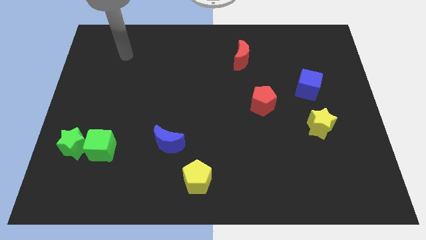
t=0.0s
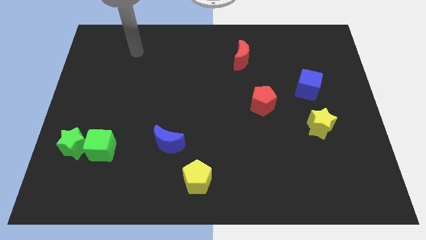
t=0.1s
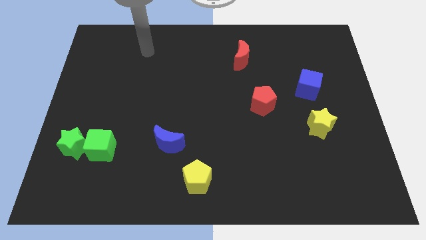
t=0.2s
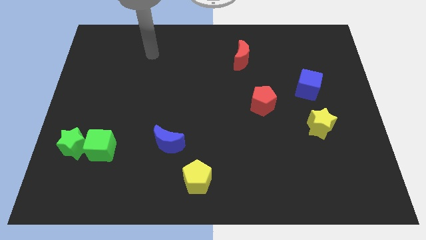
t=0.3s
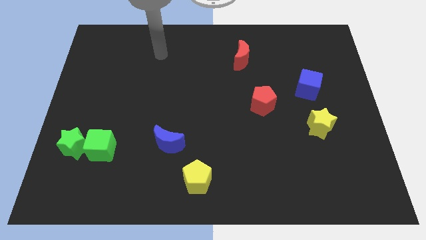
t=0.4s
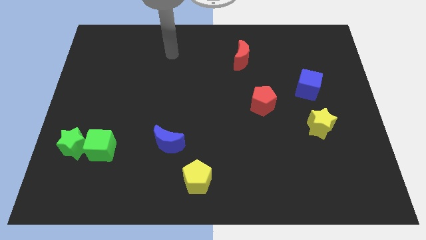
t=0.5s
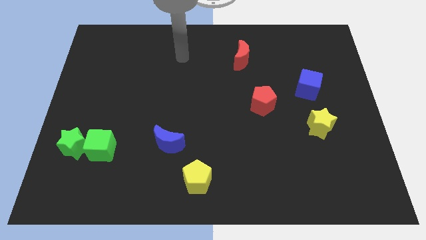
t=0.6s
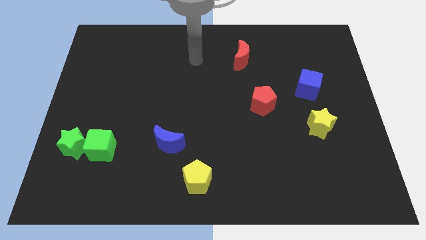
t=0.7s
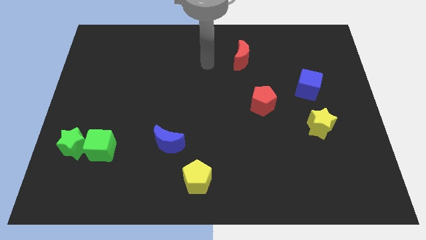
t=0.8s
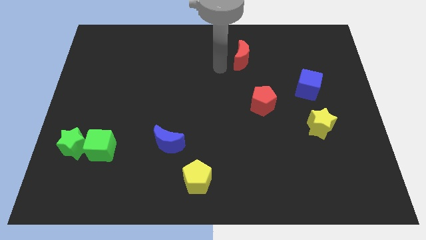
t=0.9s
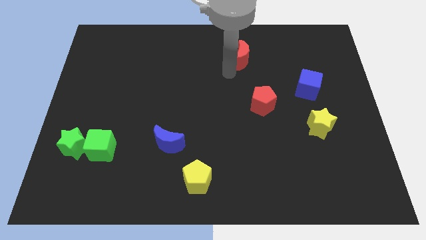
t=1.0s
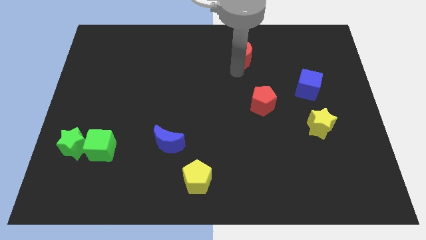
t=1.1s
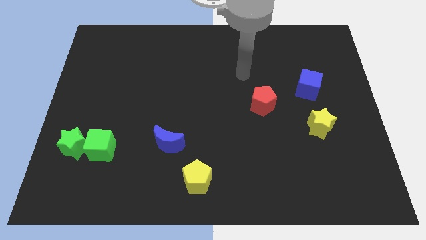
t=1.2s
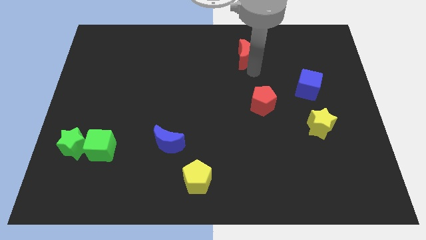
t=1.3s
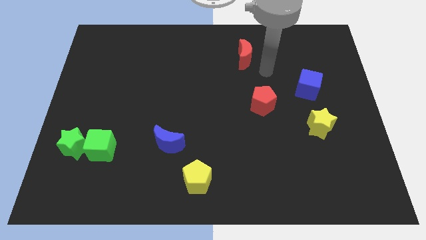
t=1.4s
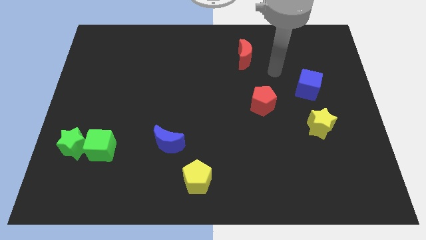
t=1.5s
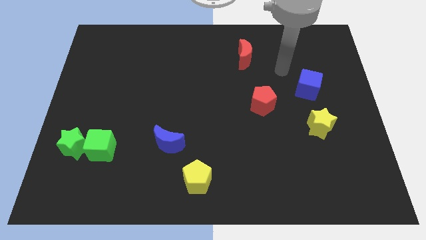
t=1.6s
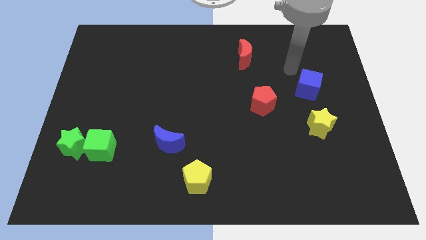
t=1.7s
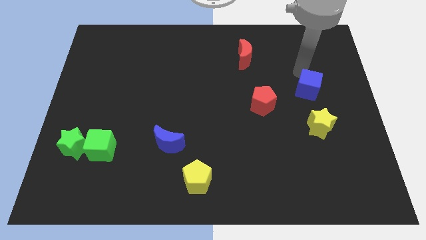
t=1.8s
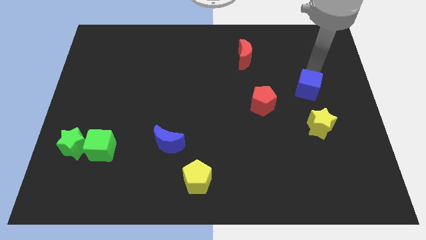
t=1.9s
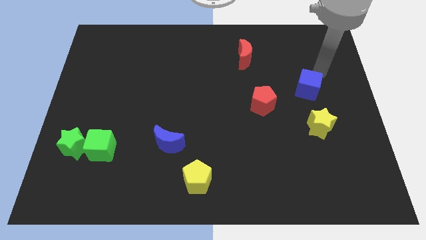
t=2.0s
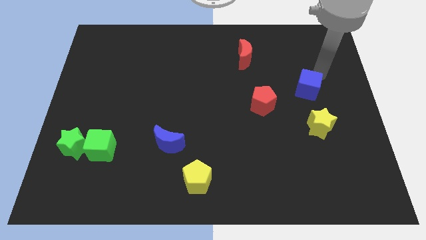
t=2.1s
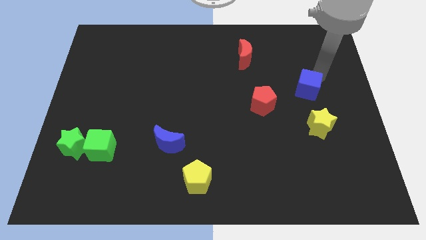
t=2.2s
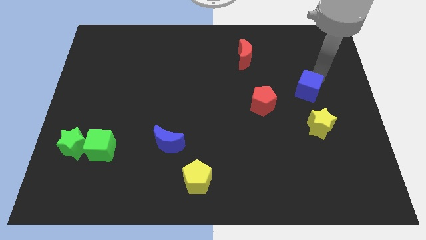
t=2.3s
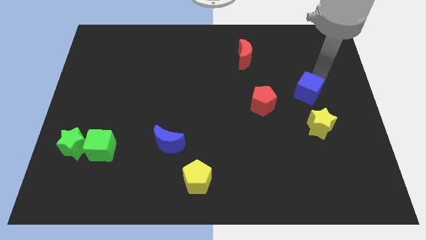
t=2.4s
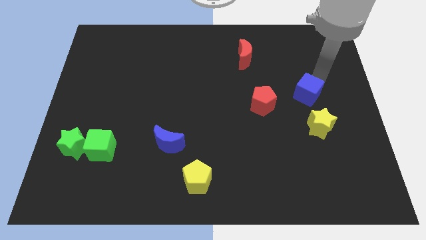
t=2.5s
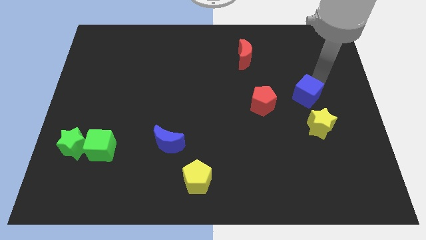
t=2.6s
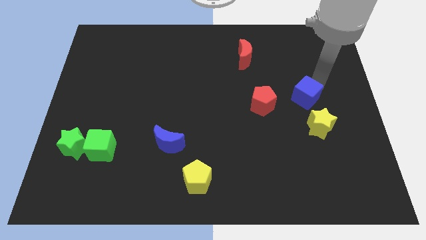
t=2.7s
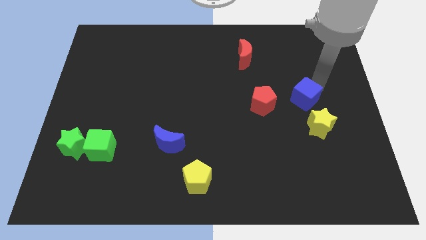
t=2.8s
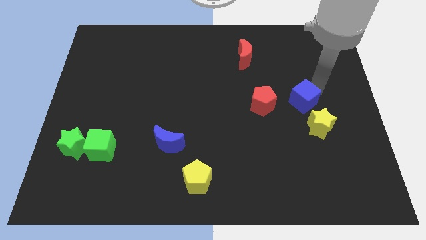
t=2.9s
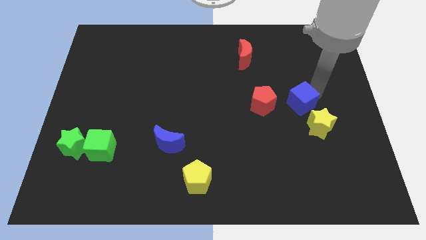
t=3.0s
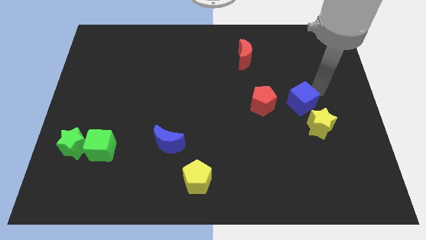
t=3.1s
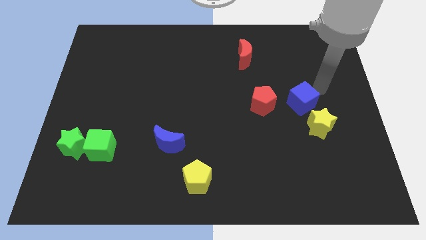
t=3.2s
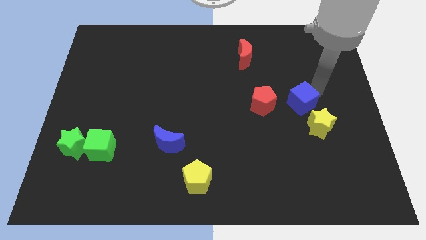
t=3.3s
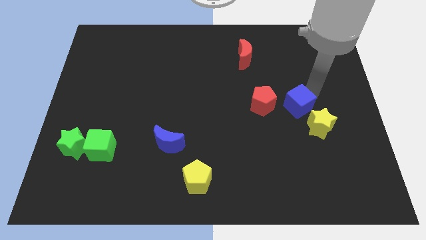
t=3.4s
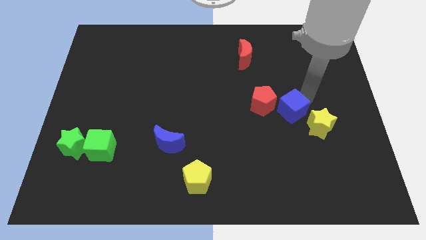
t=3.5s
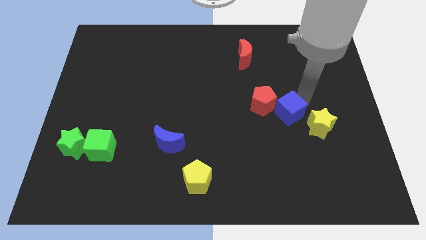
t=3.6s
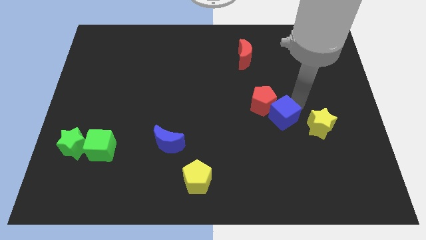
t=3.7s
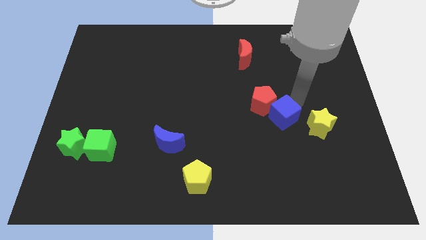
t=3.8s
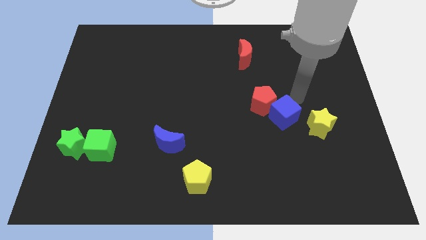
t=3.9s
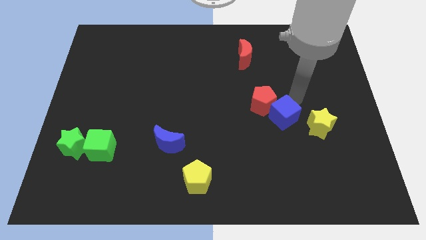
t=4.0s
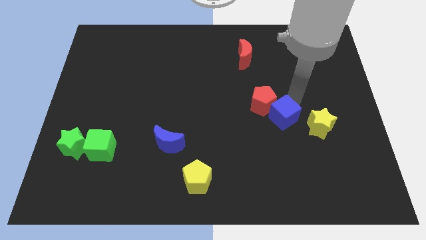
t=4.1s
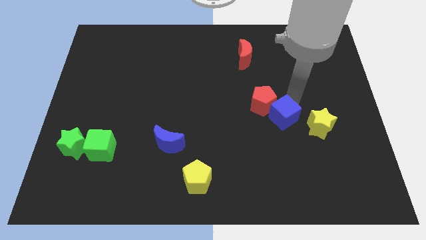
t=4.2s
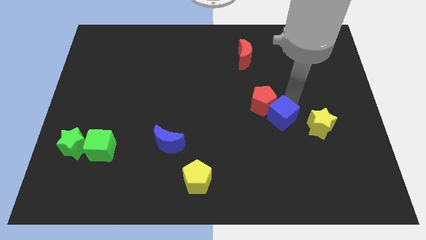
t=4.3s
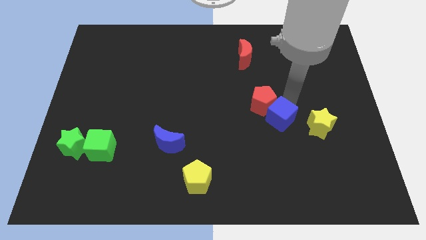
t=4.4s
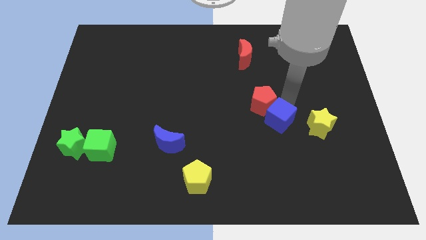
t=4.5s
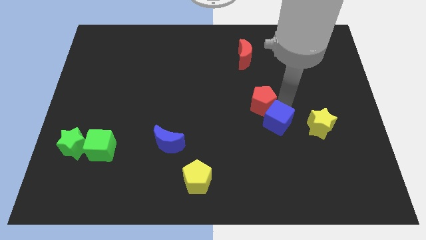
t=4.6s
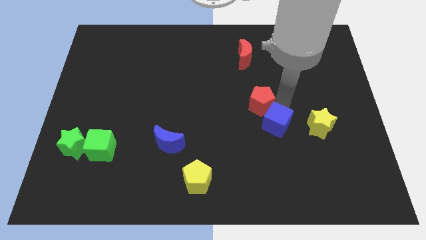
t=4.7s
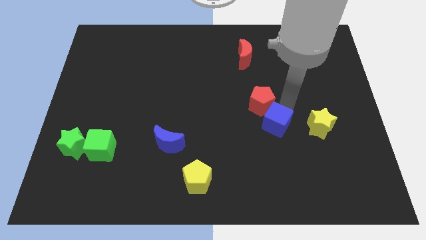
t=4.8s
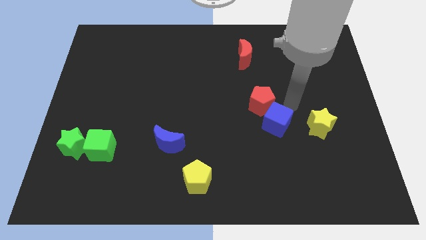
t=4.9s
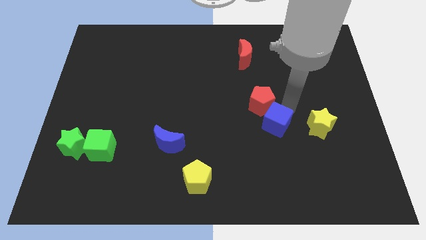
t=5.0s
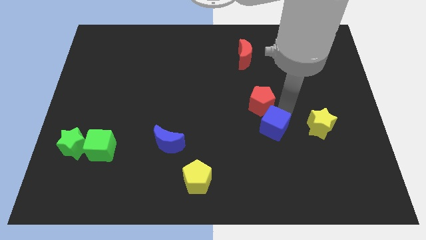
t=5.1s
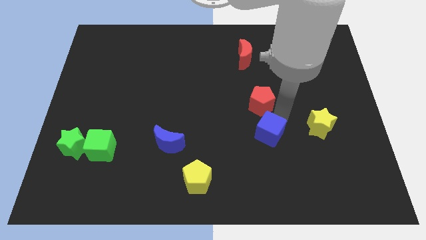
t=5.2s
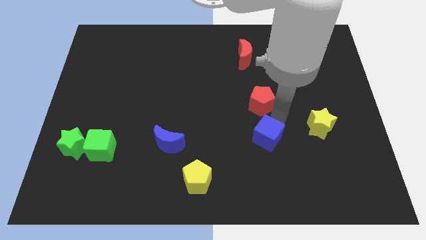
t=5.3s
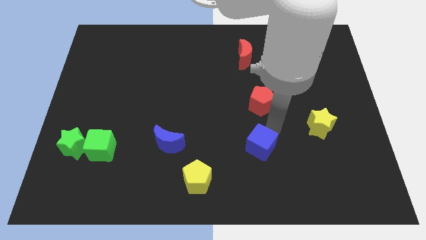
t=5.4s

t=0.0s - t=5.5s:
push the blue cube down and then to the left

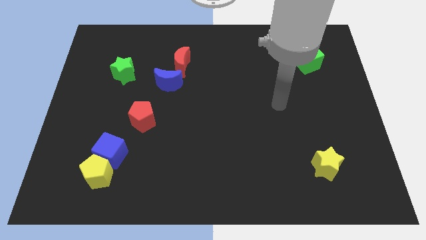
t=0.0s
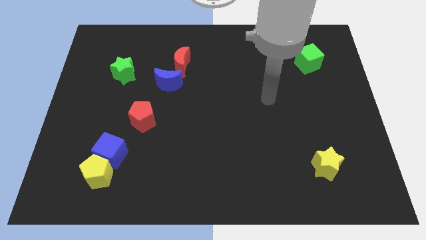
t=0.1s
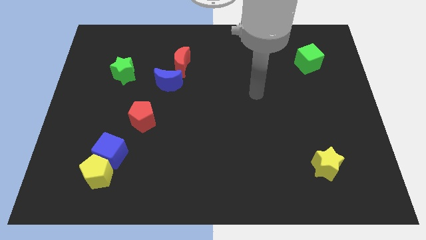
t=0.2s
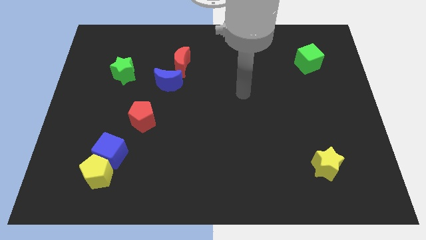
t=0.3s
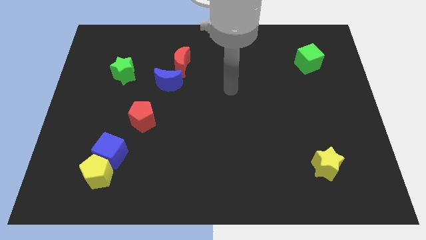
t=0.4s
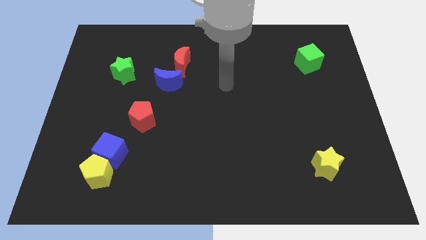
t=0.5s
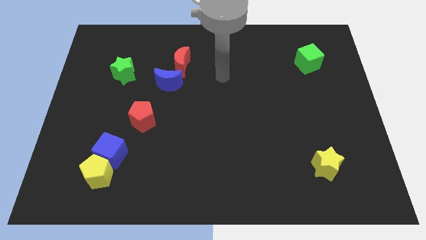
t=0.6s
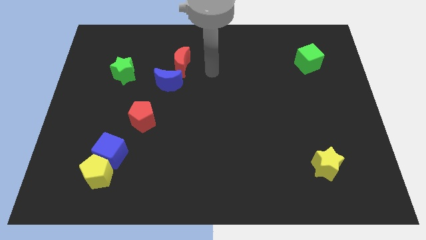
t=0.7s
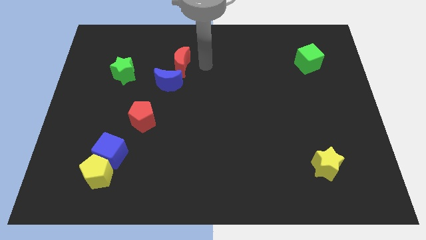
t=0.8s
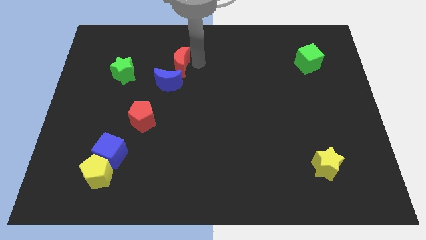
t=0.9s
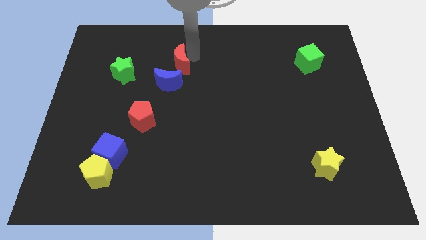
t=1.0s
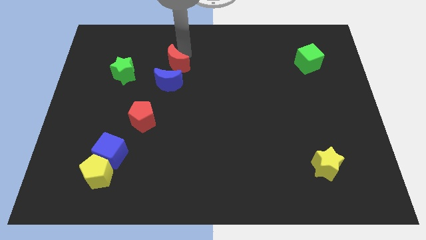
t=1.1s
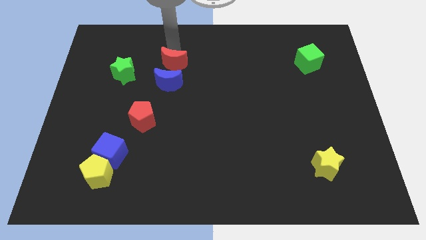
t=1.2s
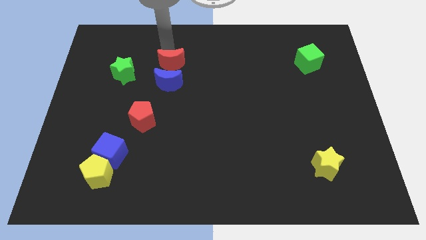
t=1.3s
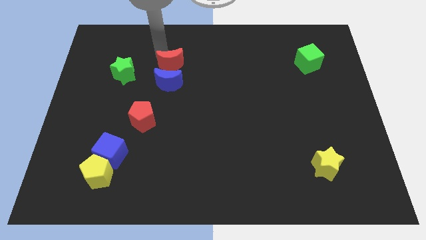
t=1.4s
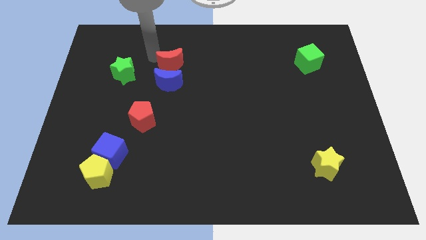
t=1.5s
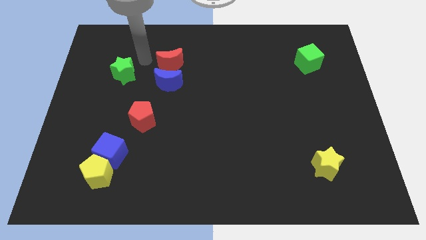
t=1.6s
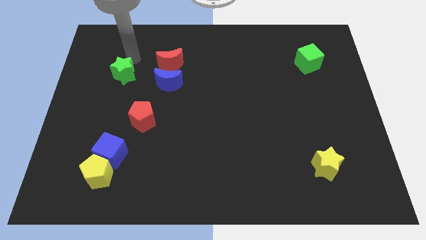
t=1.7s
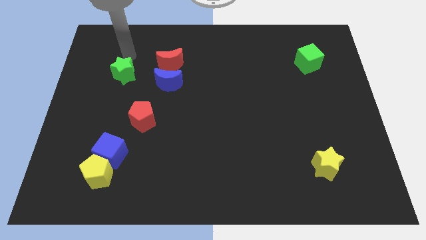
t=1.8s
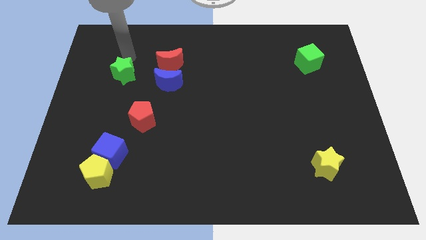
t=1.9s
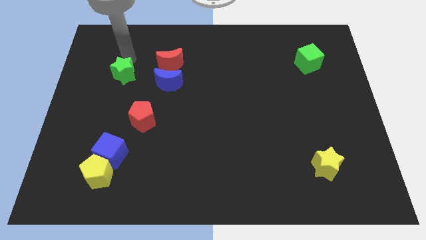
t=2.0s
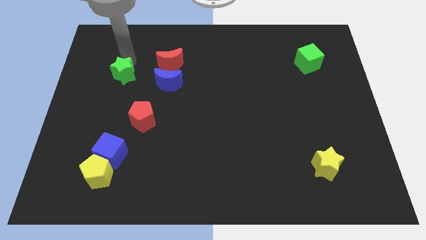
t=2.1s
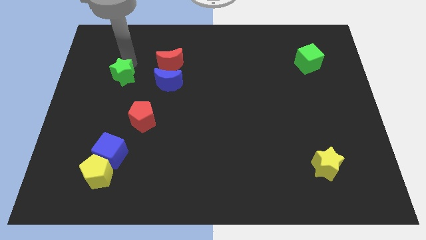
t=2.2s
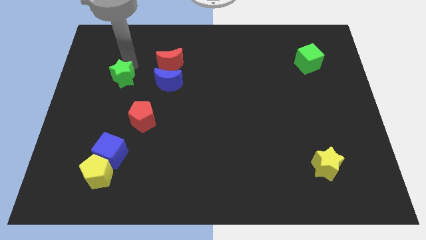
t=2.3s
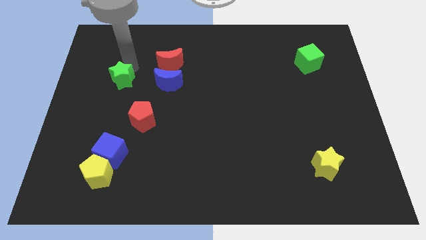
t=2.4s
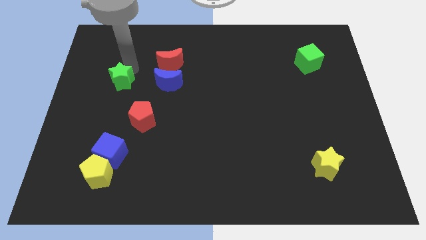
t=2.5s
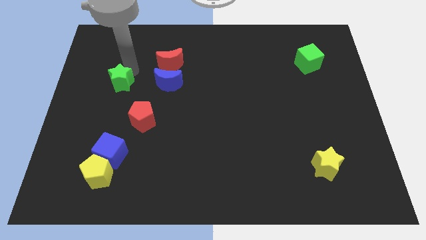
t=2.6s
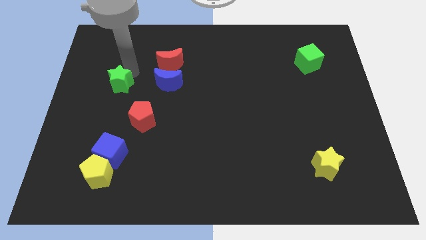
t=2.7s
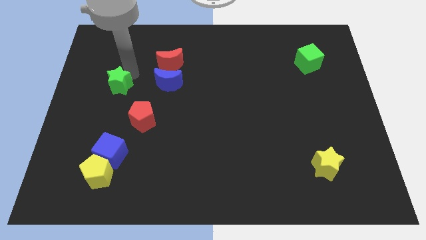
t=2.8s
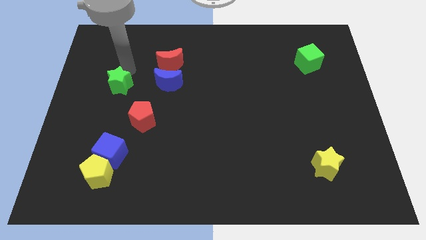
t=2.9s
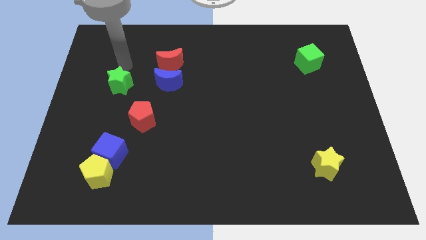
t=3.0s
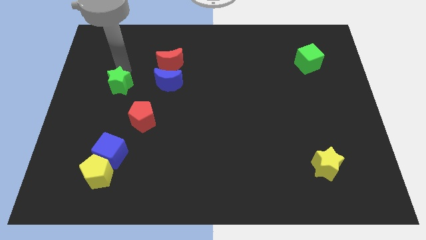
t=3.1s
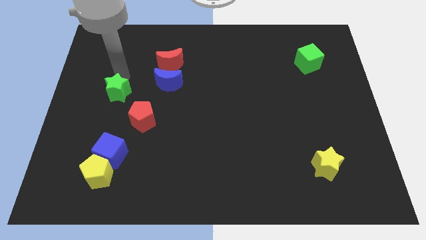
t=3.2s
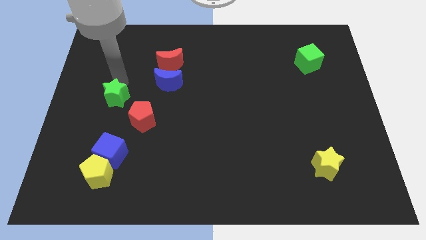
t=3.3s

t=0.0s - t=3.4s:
move the green star down slightly
